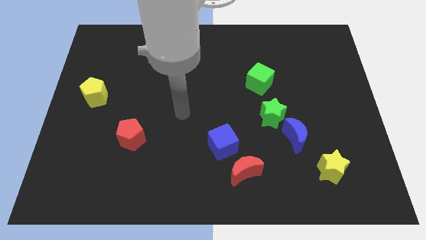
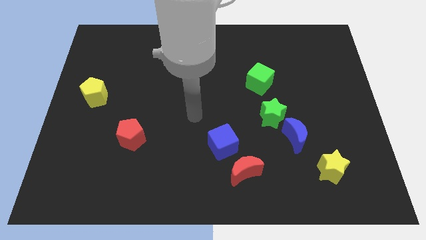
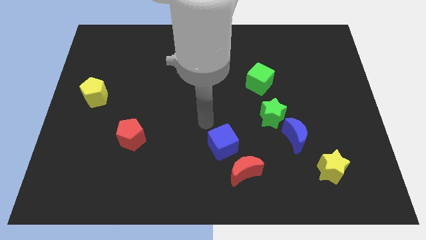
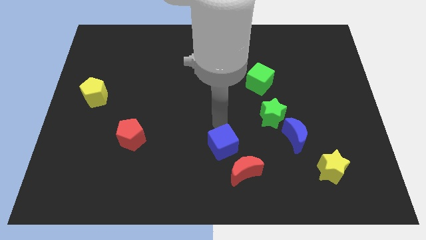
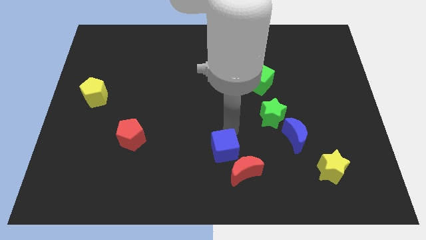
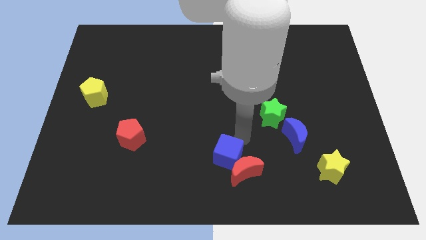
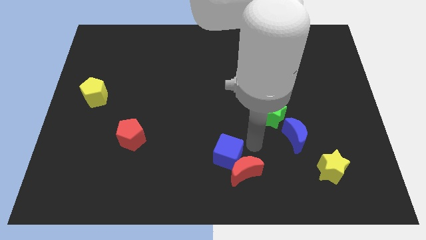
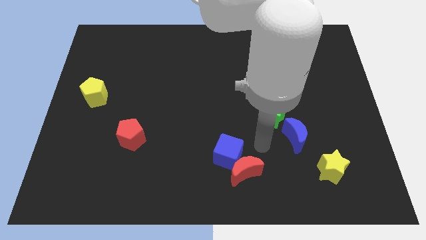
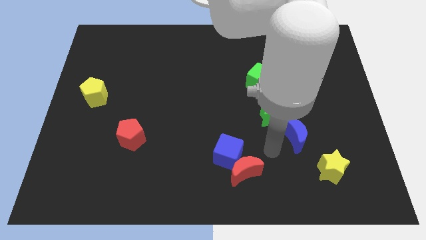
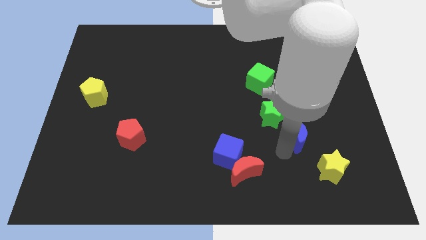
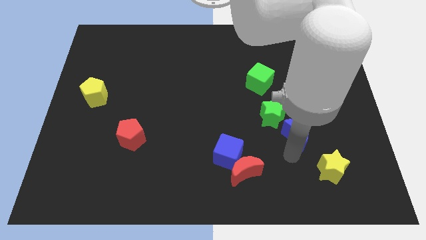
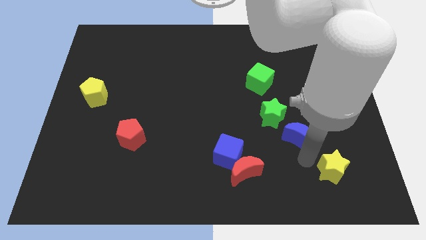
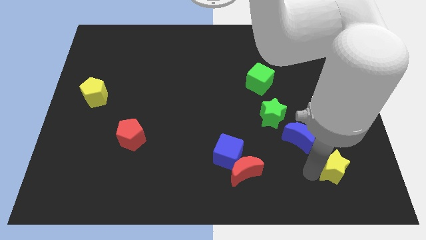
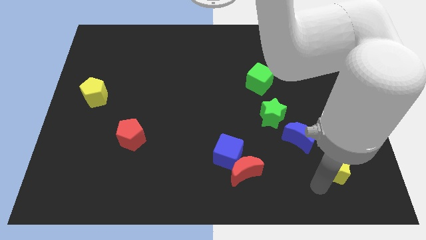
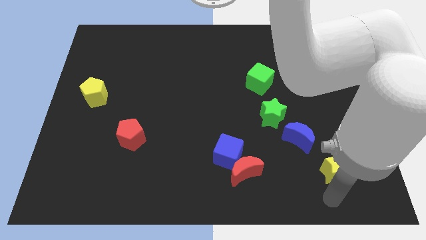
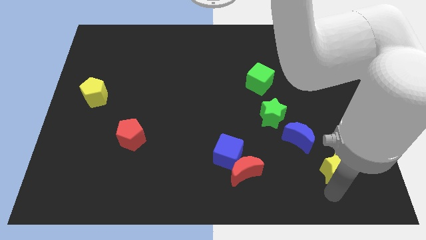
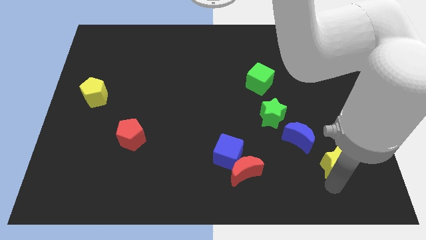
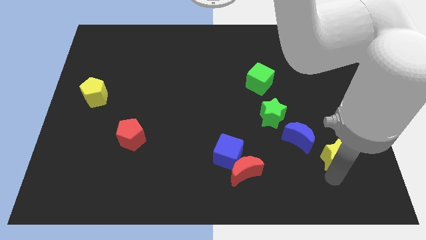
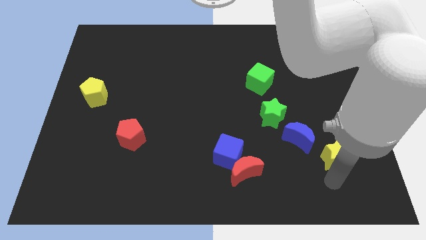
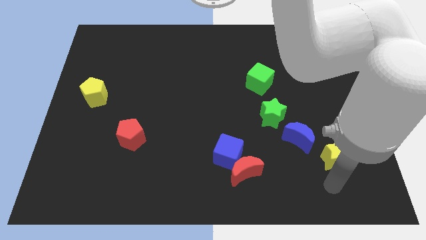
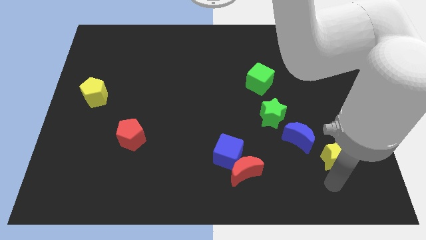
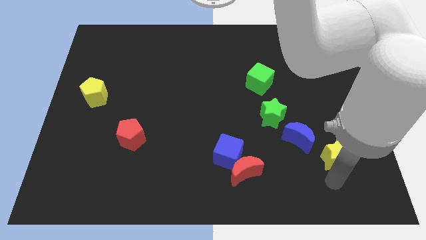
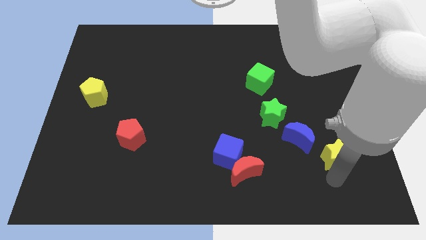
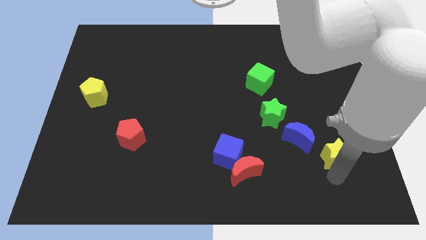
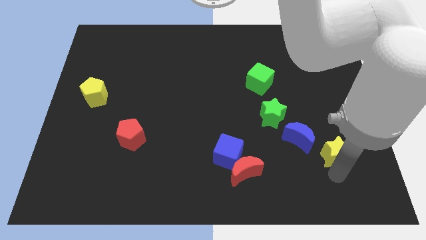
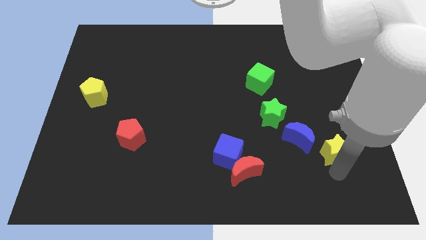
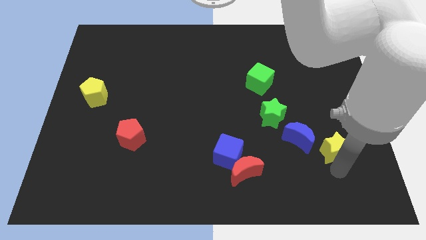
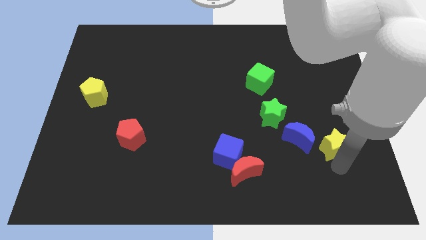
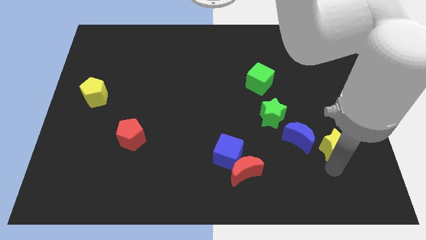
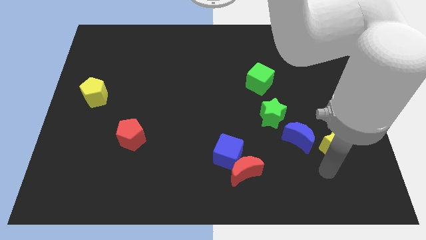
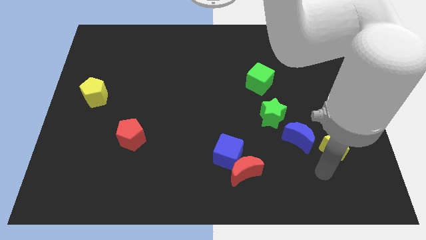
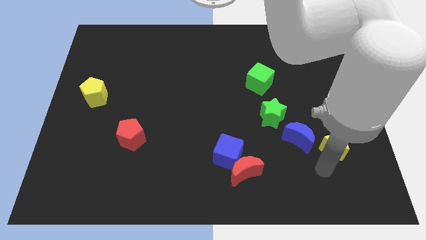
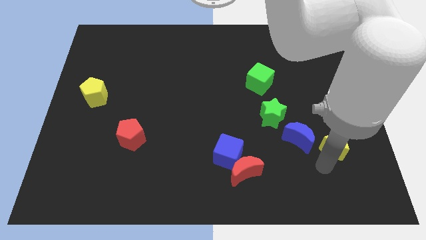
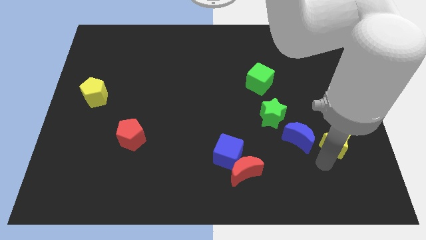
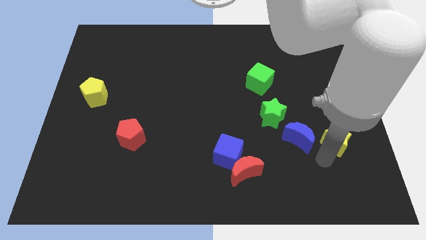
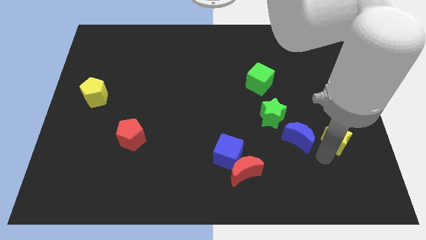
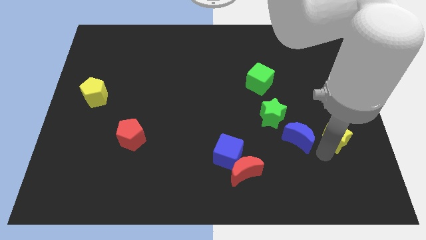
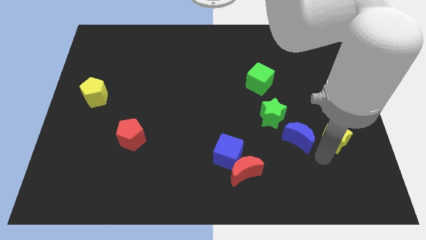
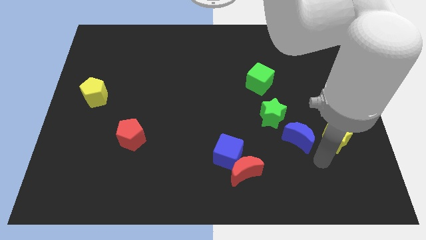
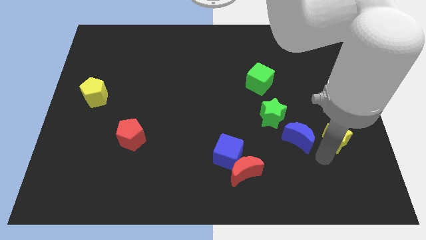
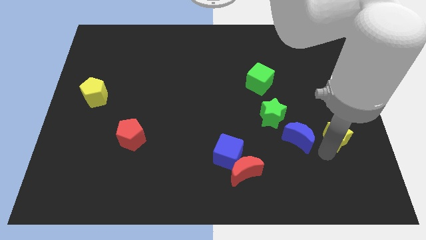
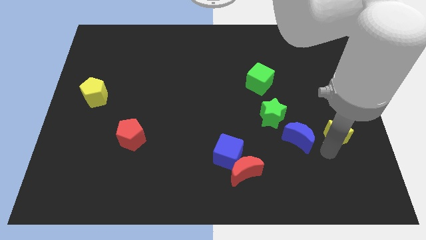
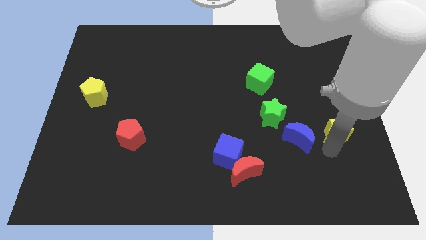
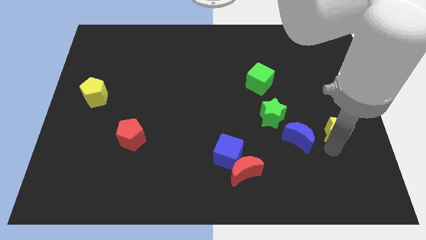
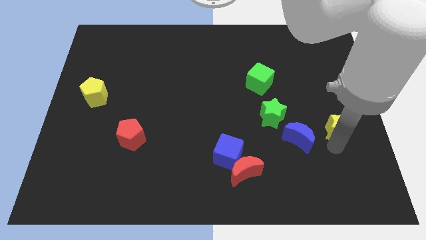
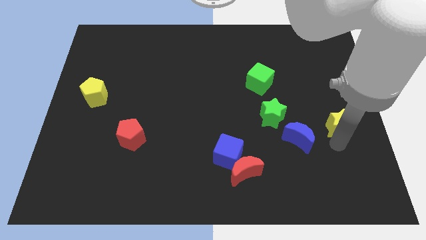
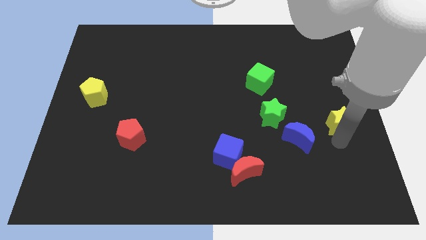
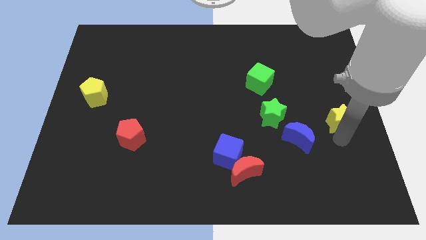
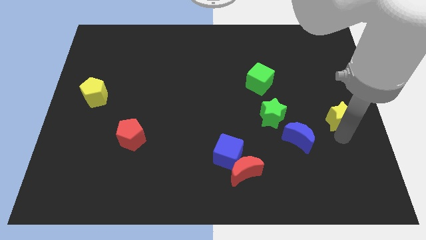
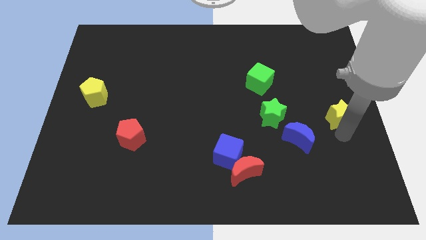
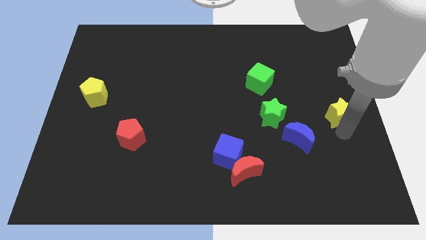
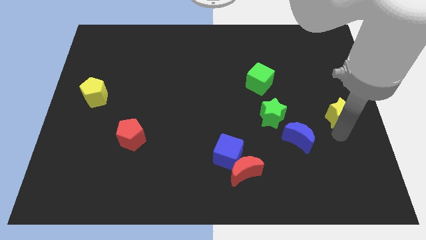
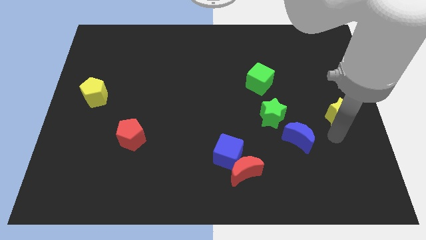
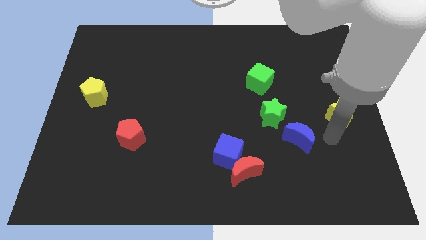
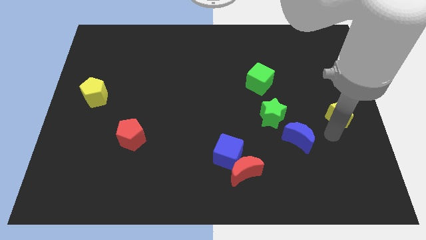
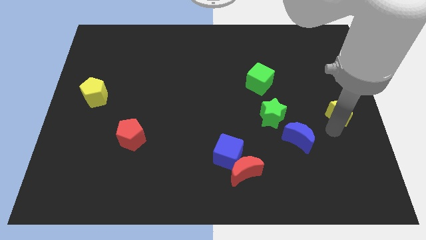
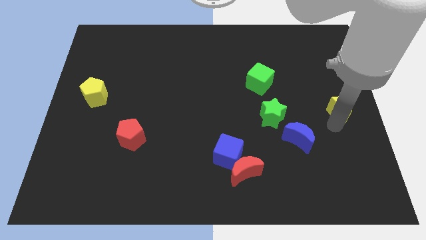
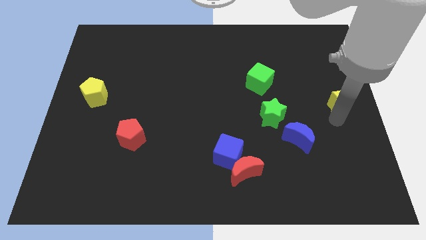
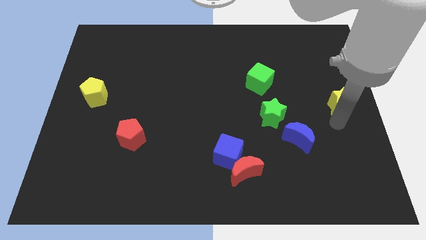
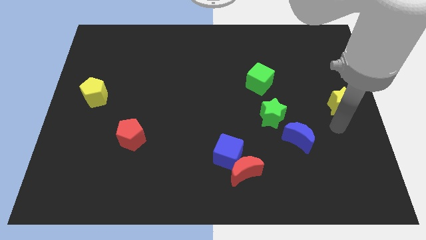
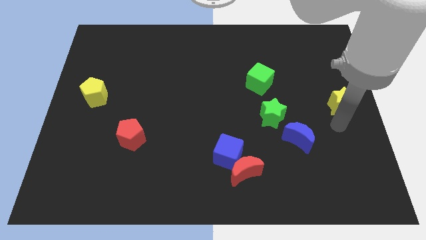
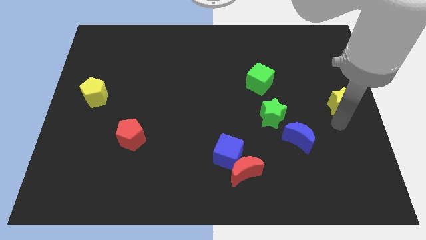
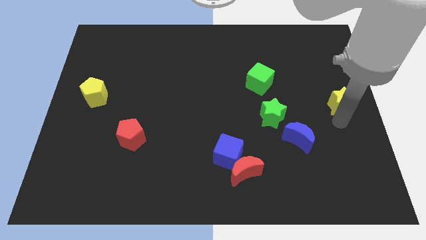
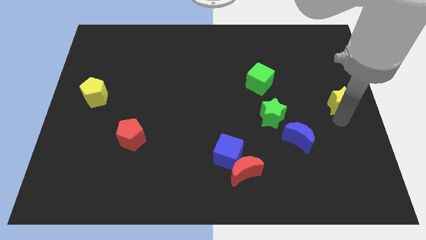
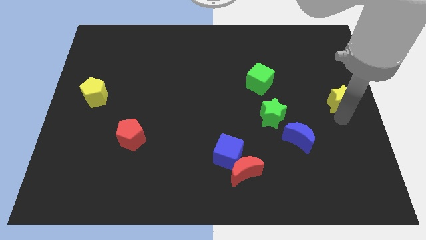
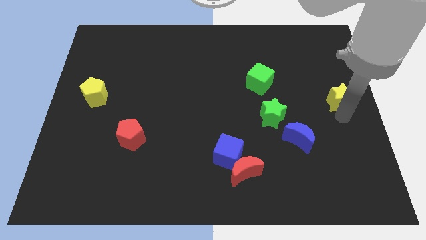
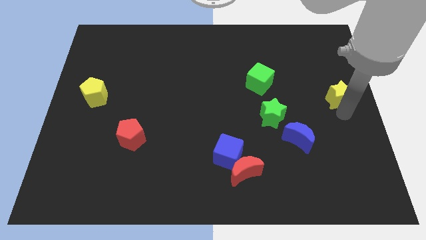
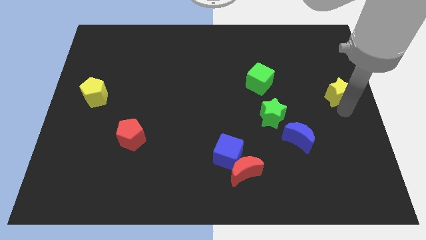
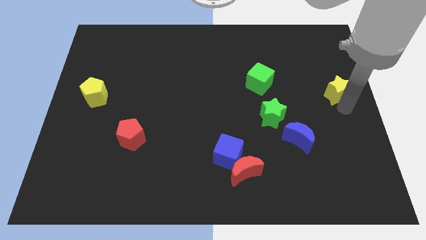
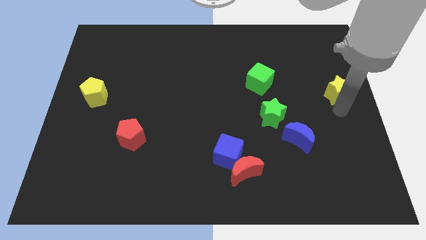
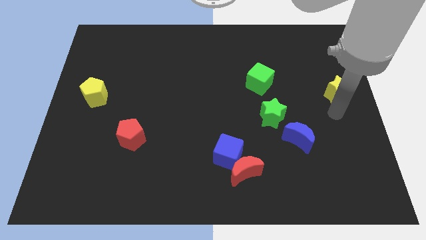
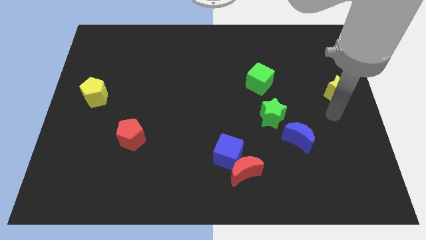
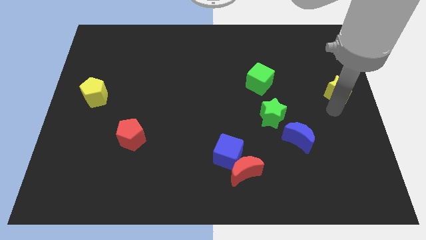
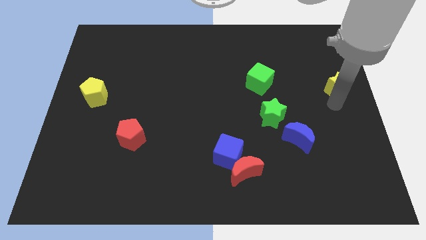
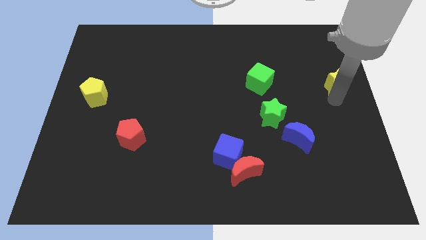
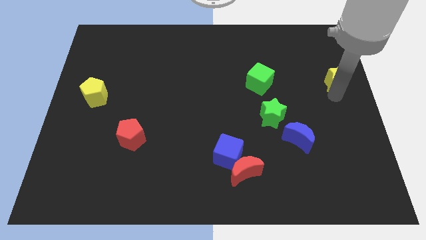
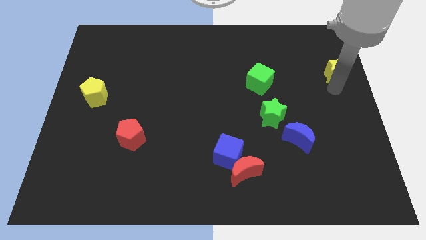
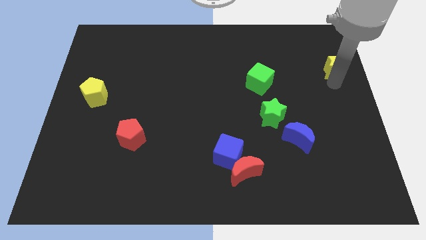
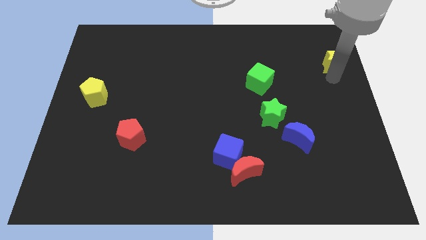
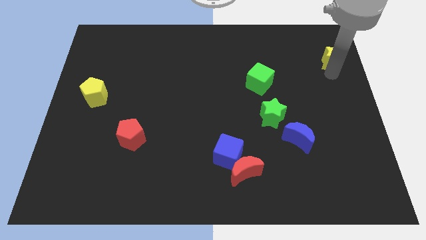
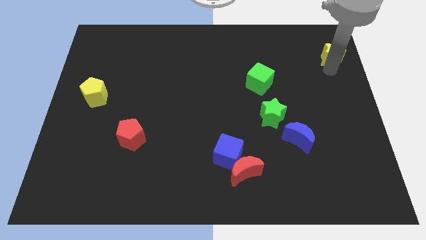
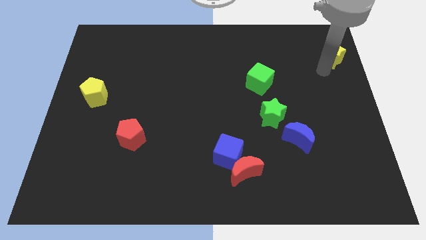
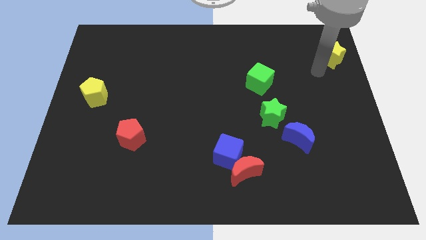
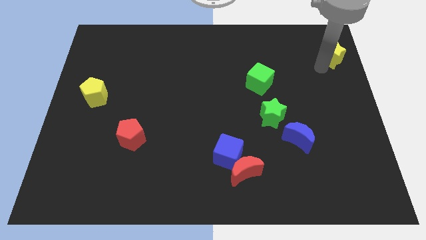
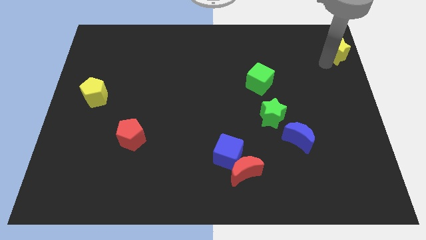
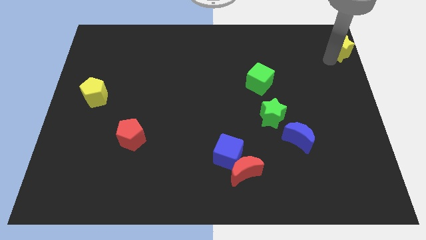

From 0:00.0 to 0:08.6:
push the yellow star to the upper right corner
